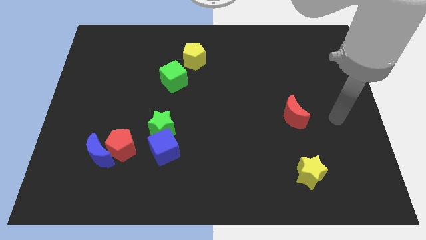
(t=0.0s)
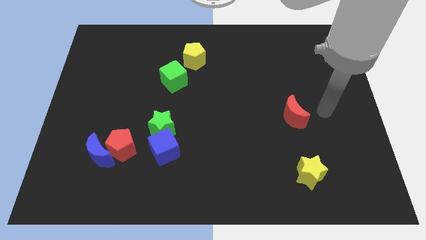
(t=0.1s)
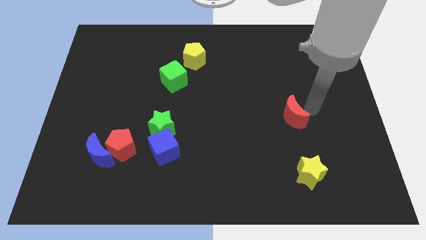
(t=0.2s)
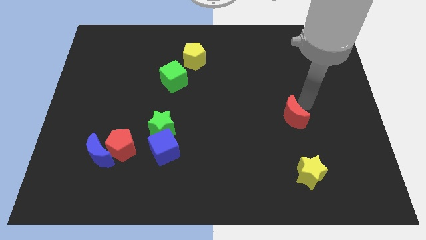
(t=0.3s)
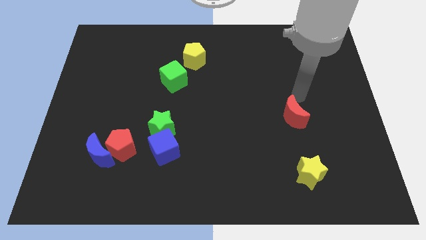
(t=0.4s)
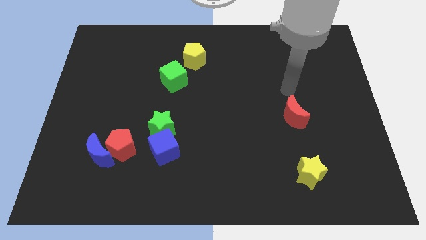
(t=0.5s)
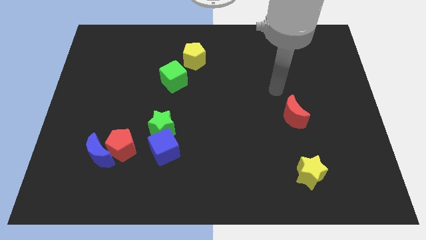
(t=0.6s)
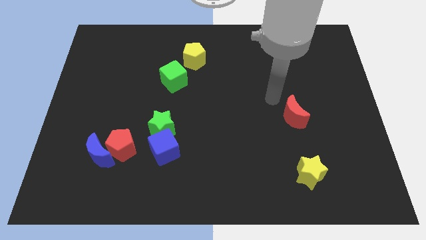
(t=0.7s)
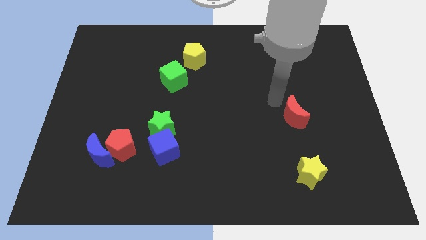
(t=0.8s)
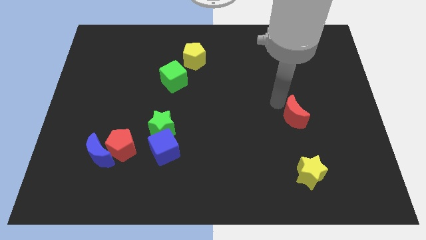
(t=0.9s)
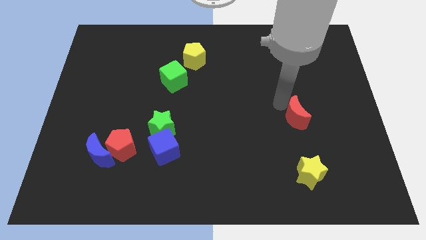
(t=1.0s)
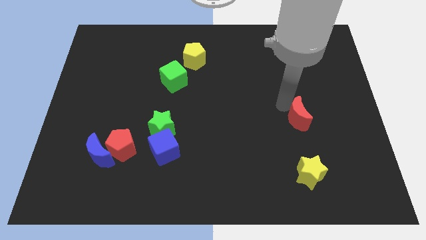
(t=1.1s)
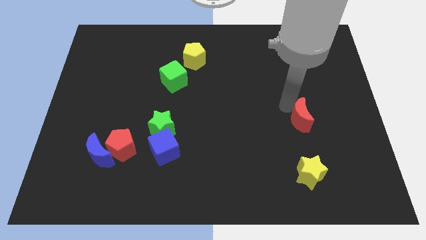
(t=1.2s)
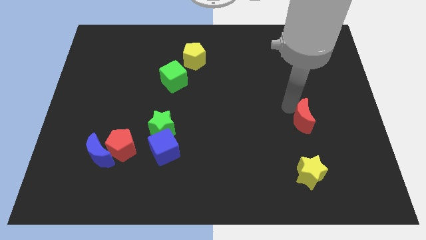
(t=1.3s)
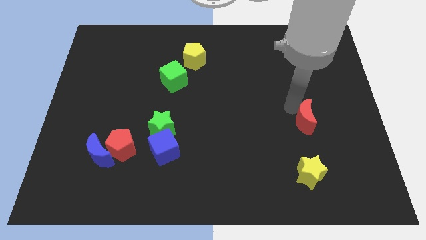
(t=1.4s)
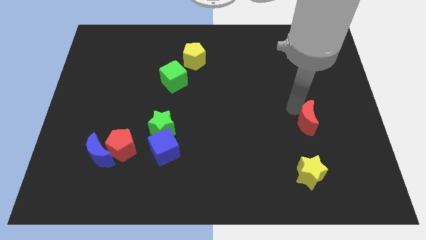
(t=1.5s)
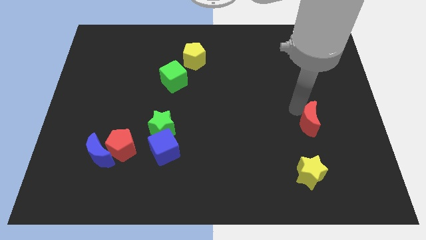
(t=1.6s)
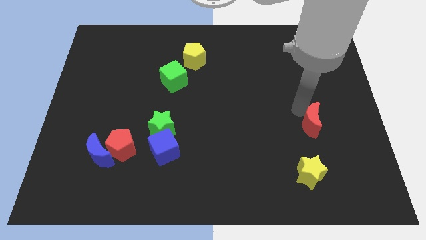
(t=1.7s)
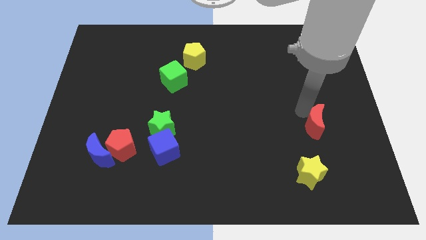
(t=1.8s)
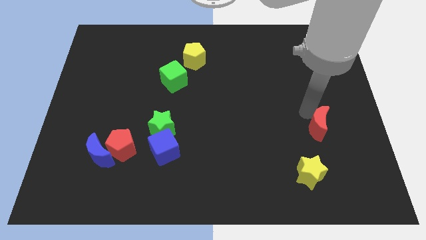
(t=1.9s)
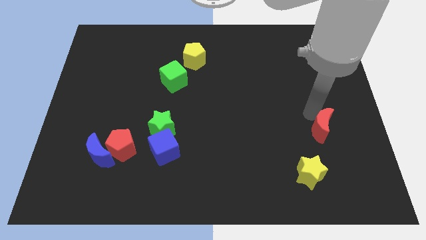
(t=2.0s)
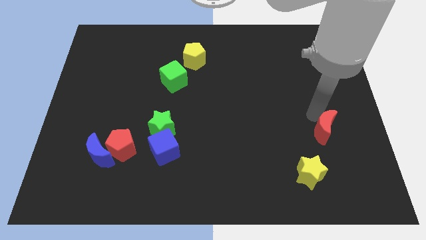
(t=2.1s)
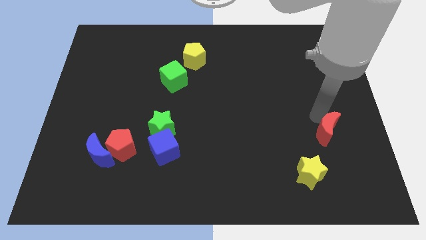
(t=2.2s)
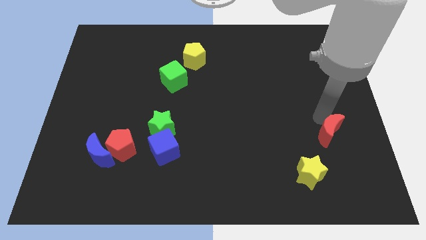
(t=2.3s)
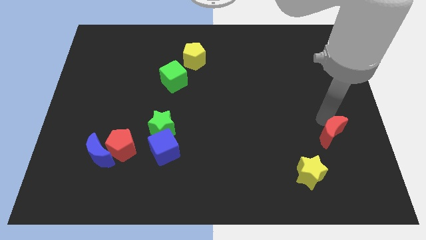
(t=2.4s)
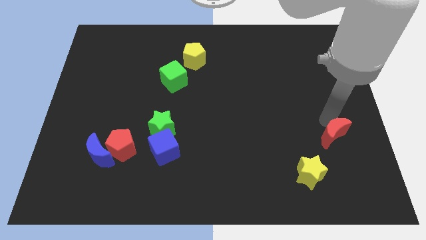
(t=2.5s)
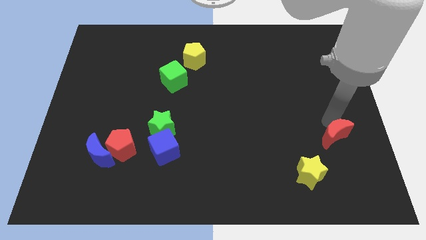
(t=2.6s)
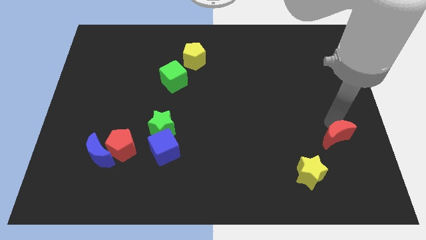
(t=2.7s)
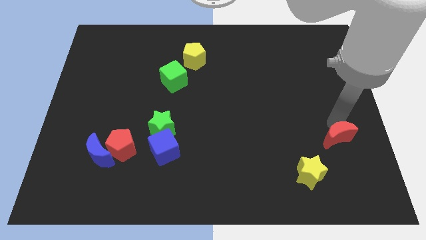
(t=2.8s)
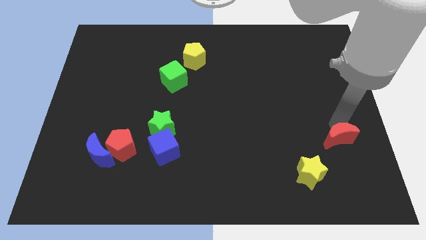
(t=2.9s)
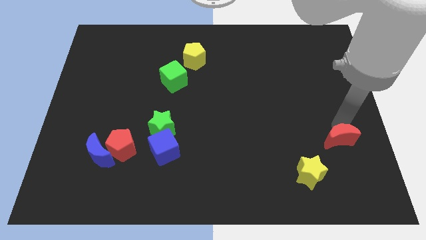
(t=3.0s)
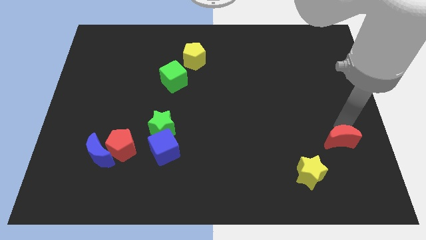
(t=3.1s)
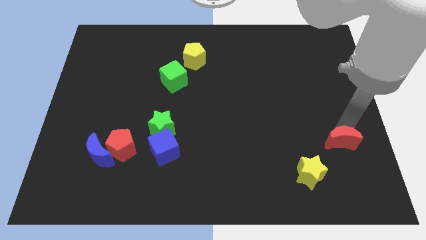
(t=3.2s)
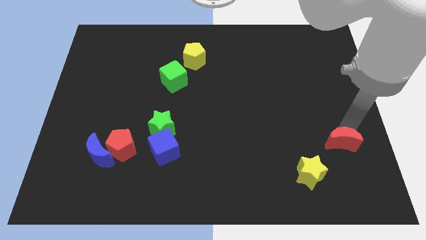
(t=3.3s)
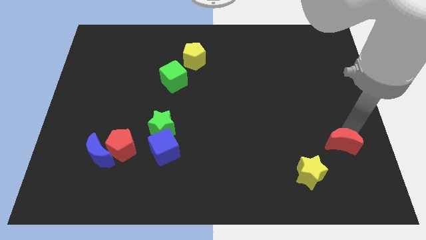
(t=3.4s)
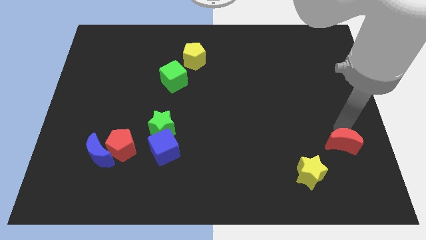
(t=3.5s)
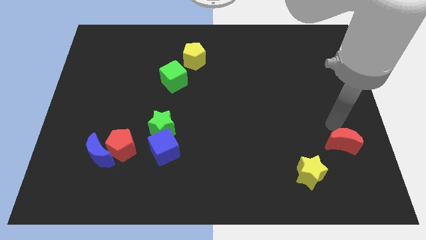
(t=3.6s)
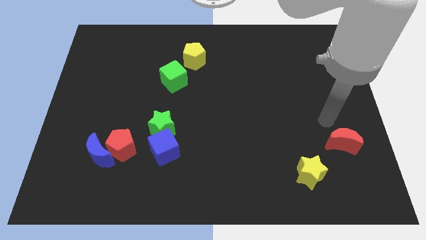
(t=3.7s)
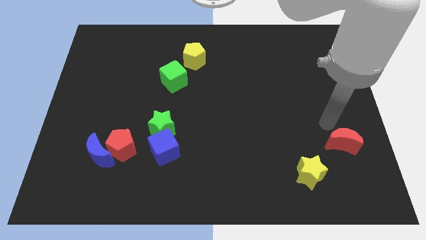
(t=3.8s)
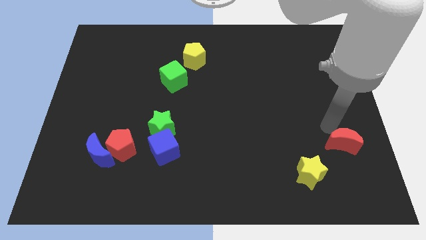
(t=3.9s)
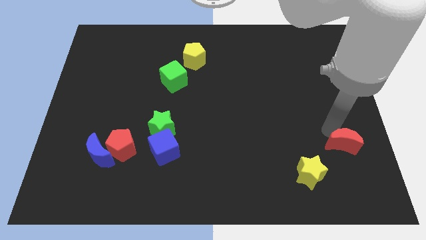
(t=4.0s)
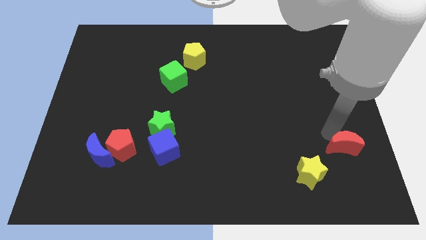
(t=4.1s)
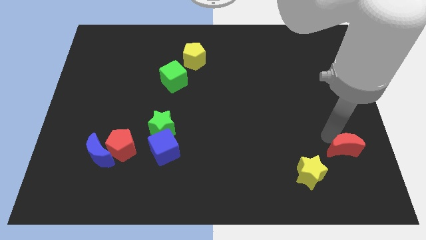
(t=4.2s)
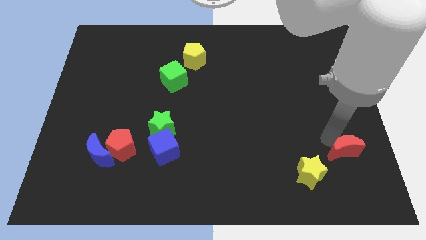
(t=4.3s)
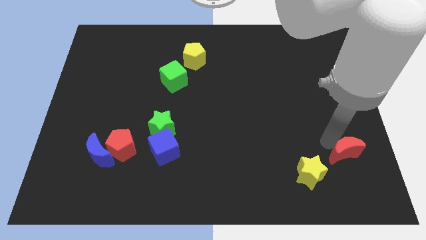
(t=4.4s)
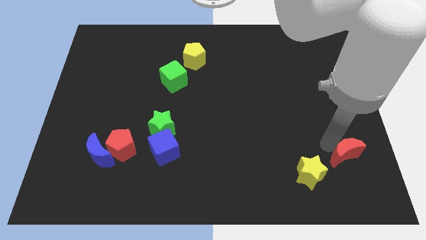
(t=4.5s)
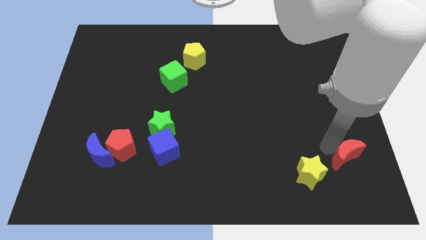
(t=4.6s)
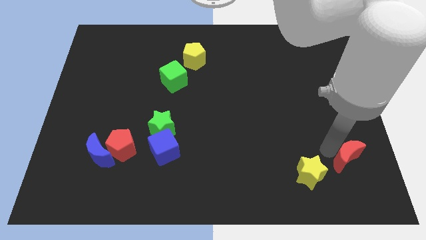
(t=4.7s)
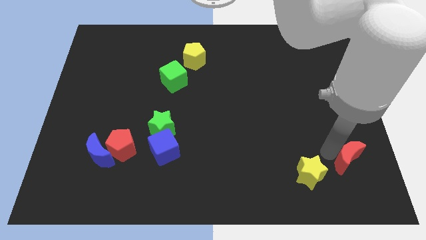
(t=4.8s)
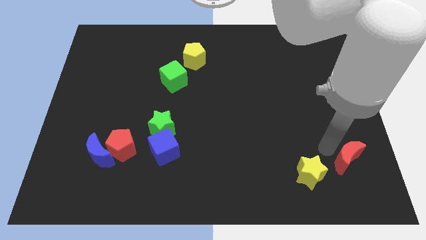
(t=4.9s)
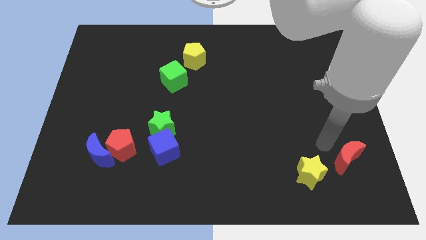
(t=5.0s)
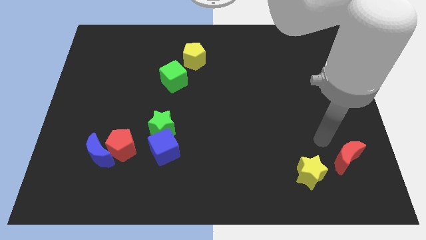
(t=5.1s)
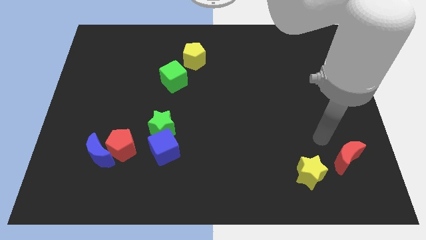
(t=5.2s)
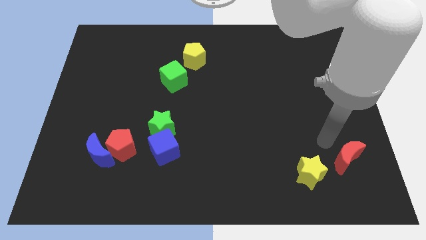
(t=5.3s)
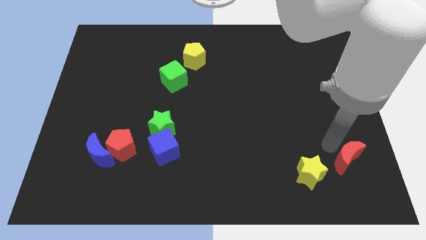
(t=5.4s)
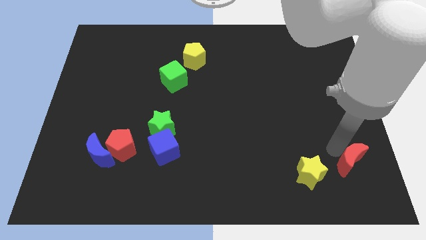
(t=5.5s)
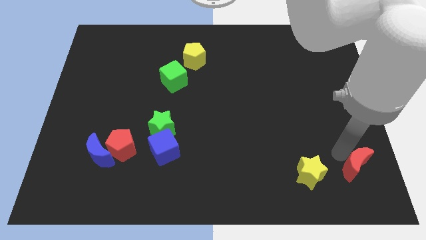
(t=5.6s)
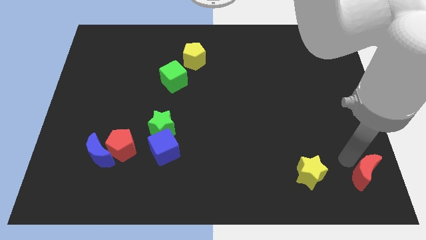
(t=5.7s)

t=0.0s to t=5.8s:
push the red moon to the bottom right

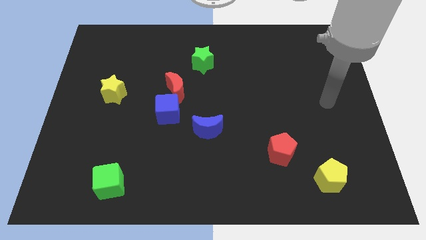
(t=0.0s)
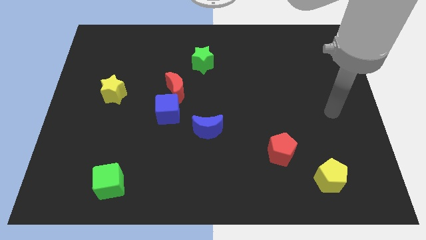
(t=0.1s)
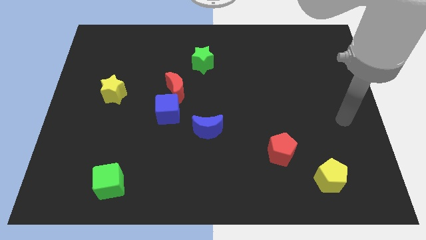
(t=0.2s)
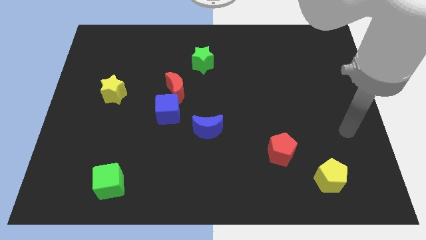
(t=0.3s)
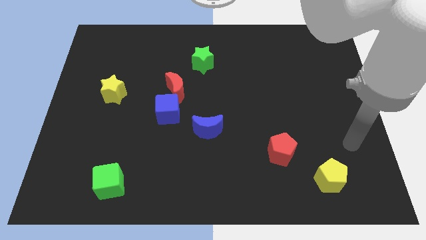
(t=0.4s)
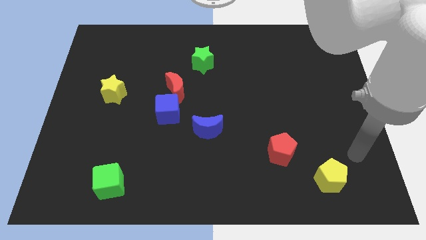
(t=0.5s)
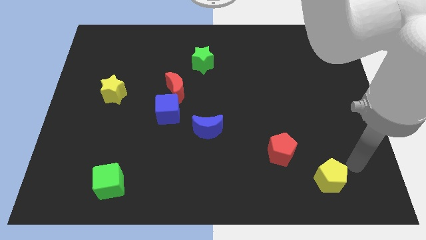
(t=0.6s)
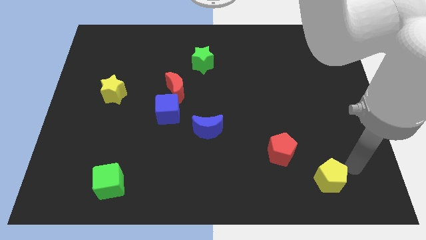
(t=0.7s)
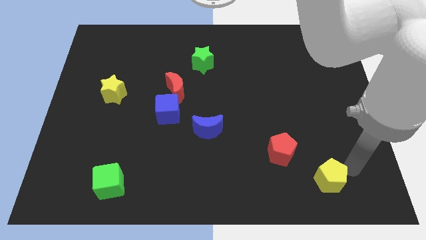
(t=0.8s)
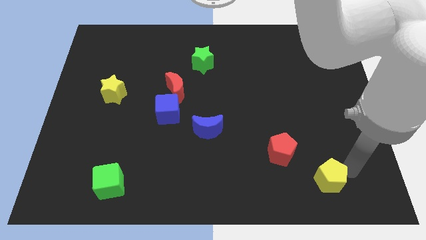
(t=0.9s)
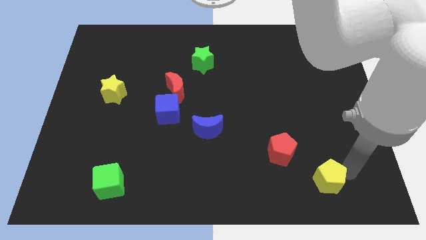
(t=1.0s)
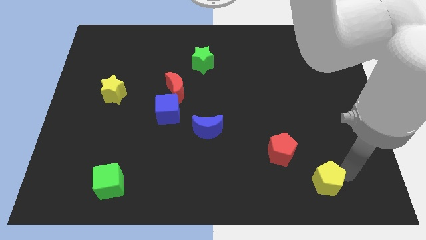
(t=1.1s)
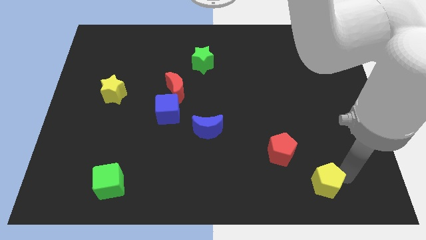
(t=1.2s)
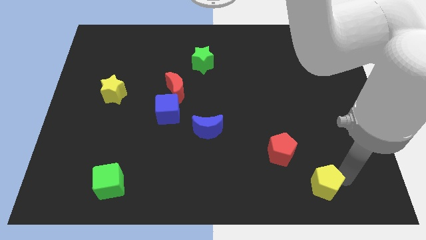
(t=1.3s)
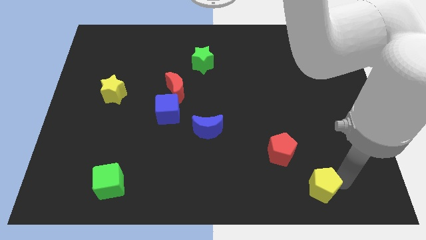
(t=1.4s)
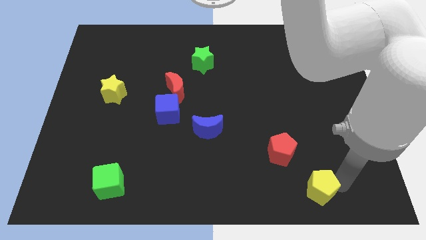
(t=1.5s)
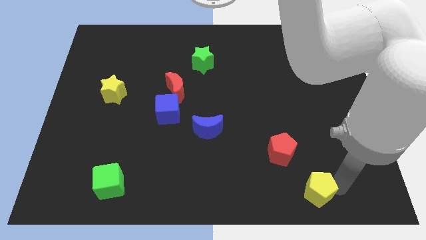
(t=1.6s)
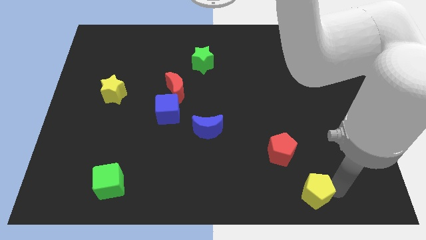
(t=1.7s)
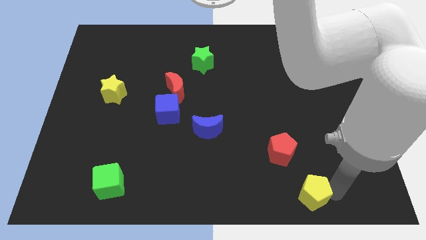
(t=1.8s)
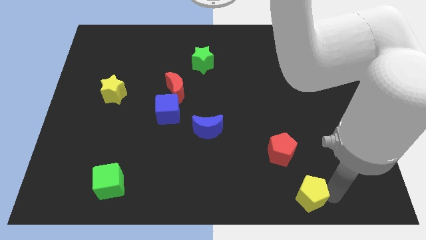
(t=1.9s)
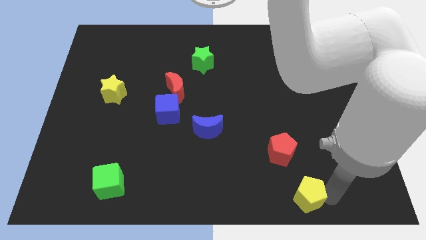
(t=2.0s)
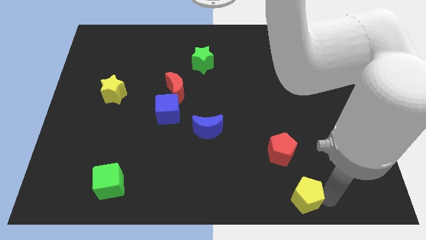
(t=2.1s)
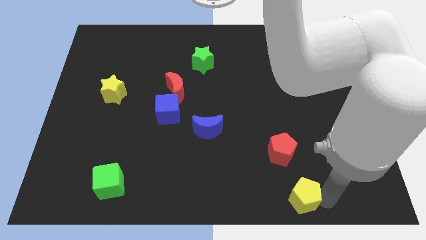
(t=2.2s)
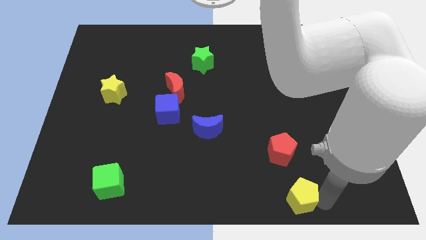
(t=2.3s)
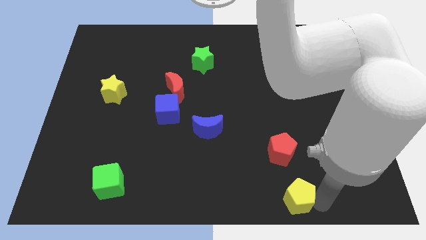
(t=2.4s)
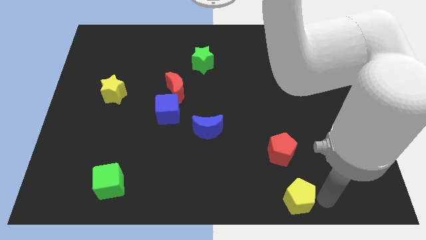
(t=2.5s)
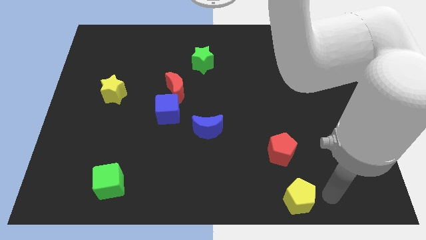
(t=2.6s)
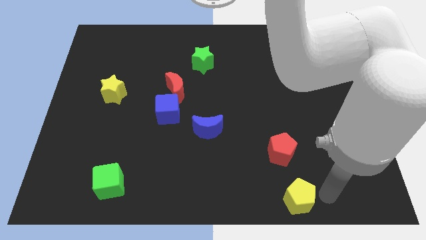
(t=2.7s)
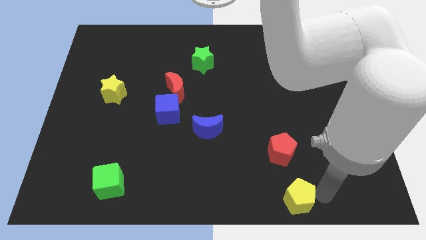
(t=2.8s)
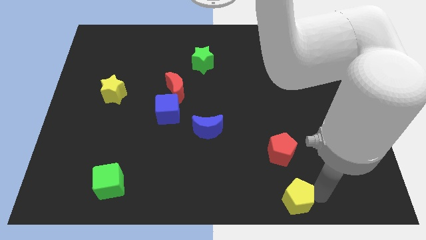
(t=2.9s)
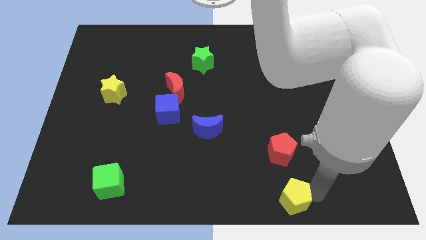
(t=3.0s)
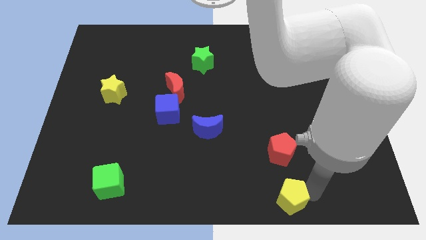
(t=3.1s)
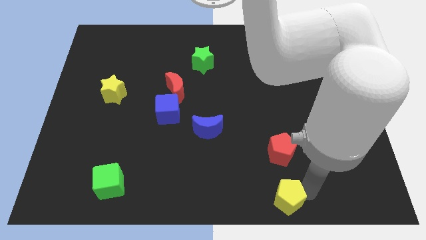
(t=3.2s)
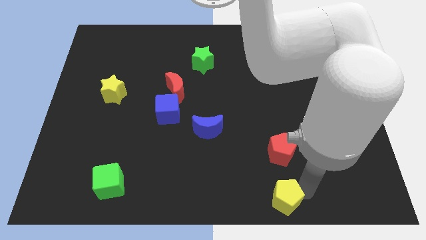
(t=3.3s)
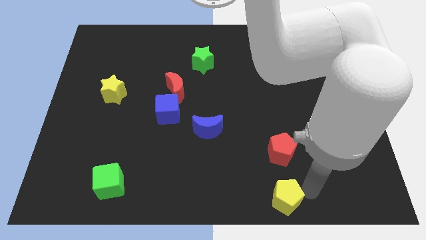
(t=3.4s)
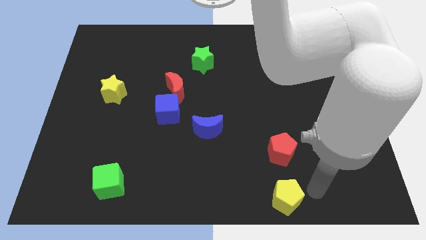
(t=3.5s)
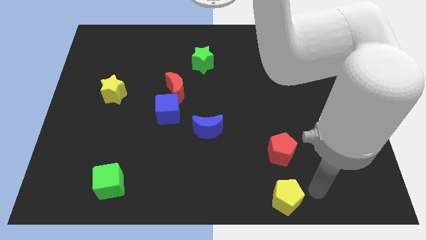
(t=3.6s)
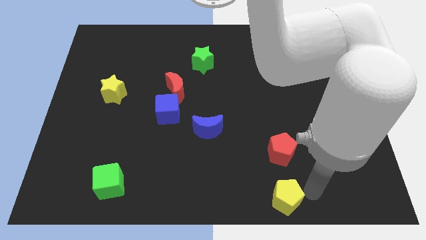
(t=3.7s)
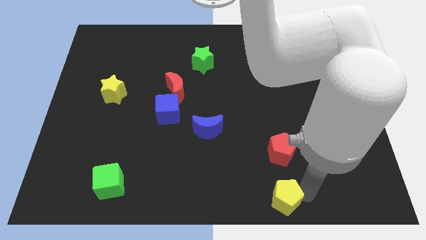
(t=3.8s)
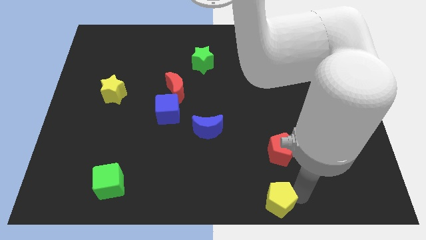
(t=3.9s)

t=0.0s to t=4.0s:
put the yellow pentagon to the bottom
